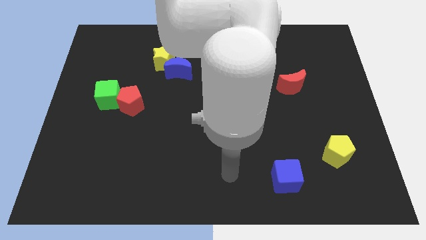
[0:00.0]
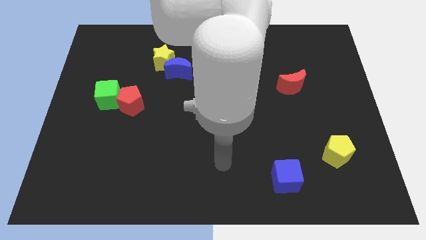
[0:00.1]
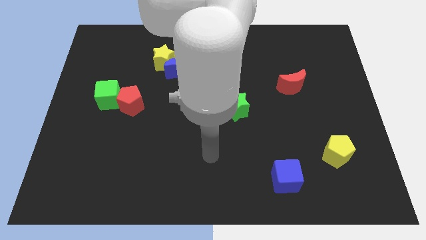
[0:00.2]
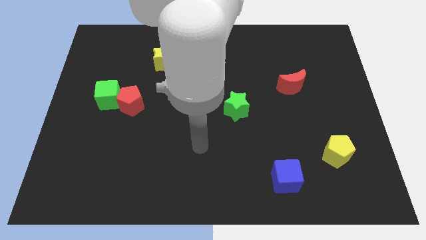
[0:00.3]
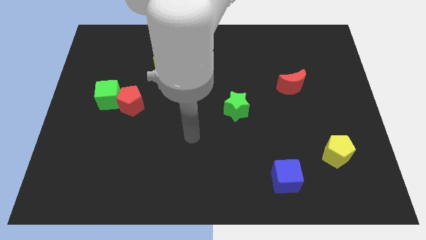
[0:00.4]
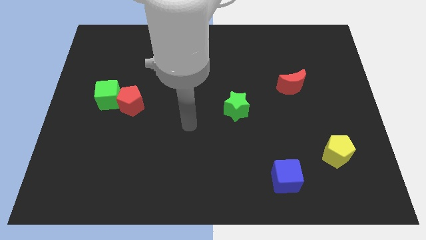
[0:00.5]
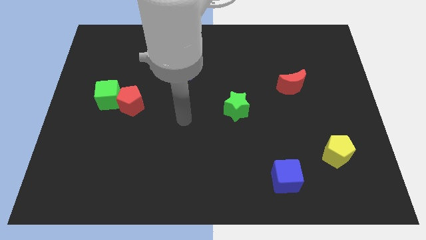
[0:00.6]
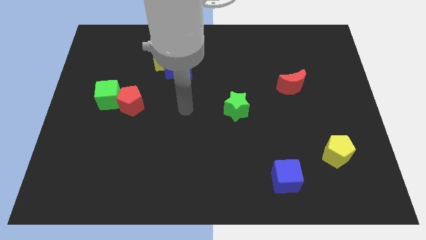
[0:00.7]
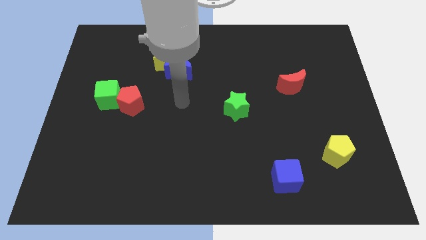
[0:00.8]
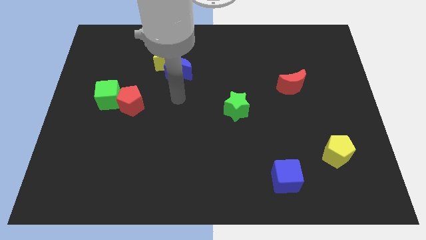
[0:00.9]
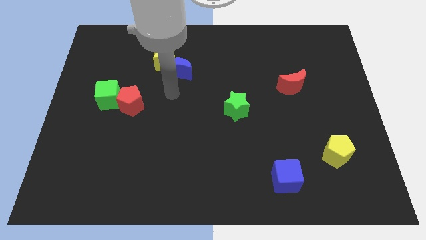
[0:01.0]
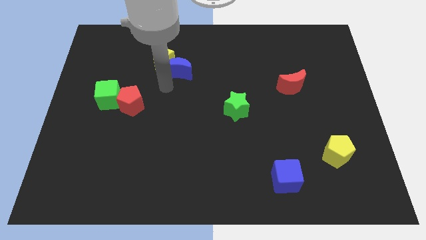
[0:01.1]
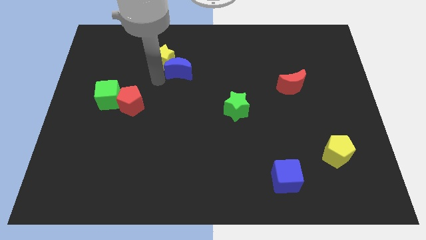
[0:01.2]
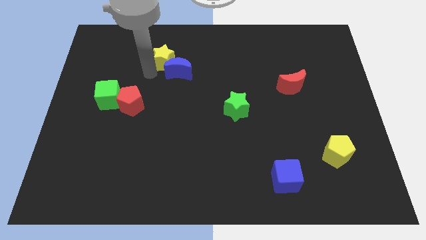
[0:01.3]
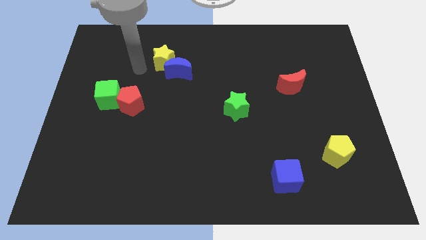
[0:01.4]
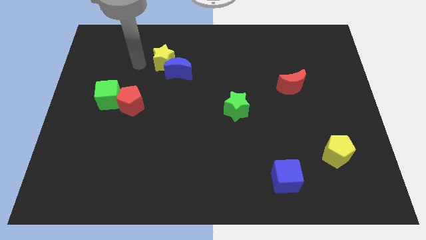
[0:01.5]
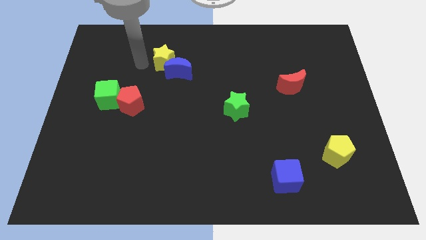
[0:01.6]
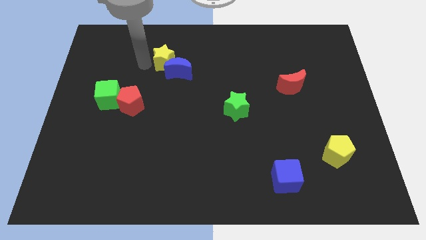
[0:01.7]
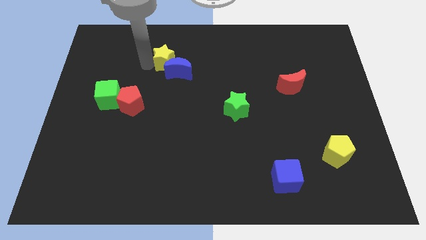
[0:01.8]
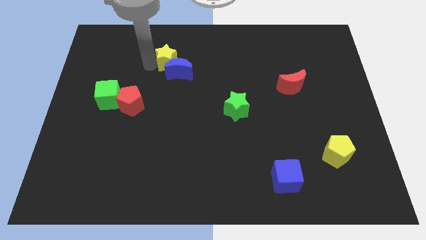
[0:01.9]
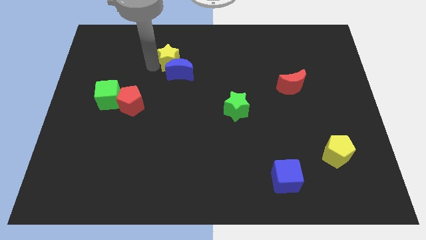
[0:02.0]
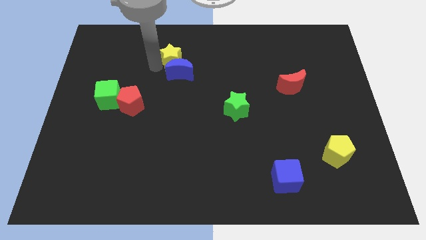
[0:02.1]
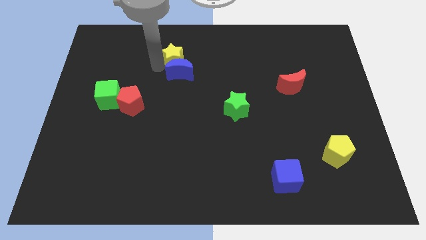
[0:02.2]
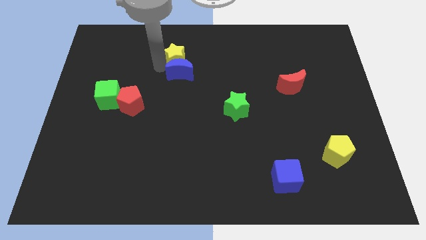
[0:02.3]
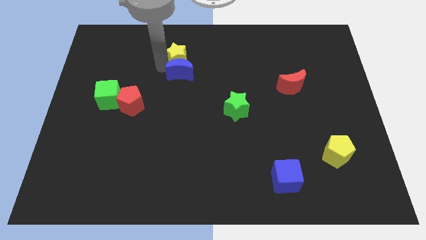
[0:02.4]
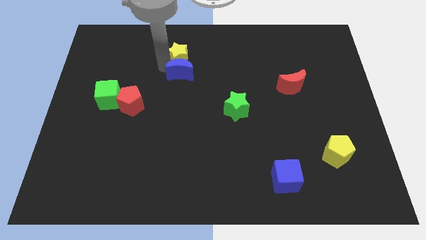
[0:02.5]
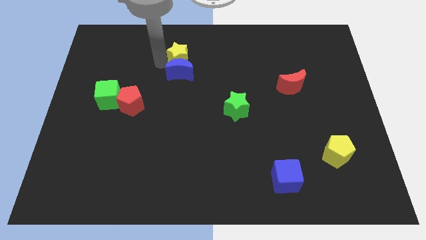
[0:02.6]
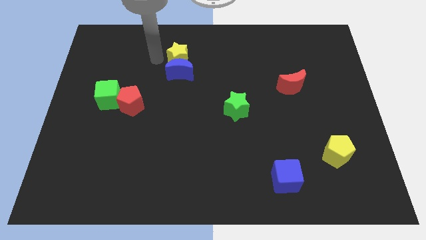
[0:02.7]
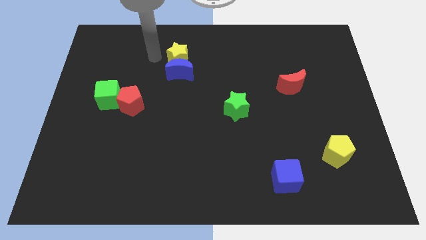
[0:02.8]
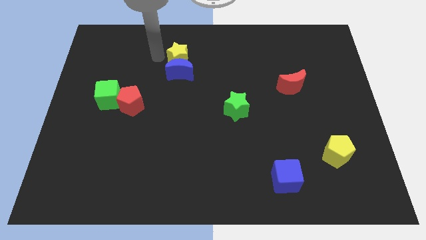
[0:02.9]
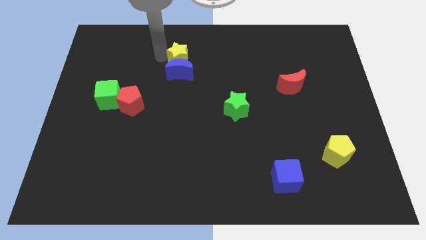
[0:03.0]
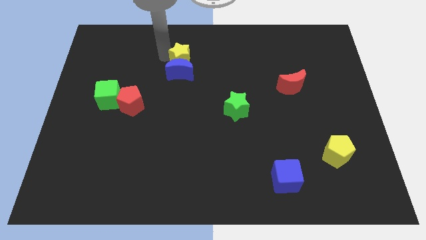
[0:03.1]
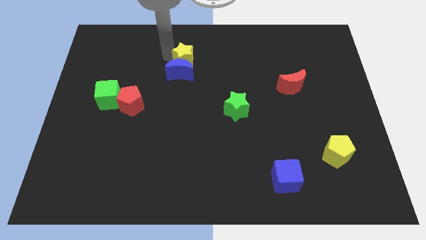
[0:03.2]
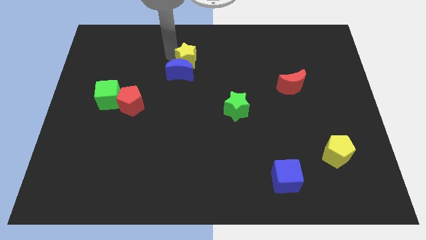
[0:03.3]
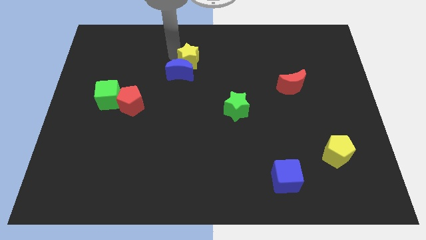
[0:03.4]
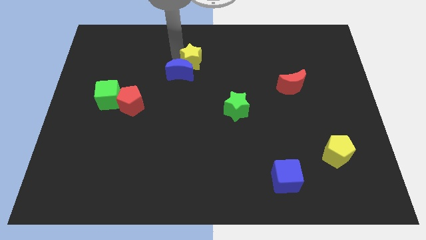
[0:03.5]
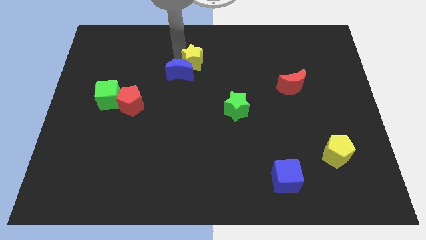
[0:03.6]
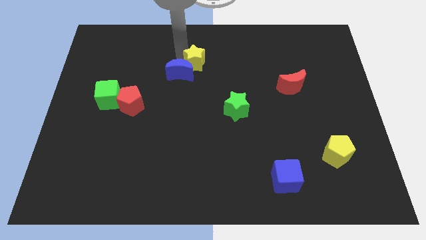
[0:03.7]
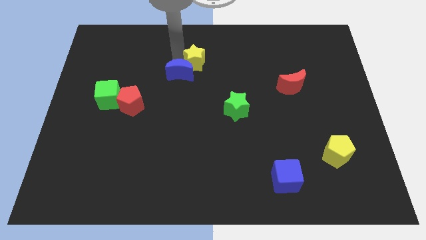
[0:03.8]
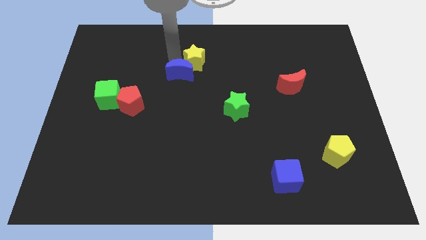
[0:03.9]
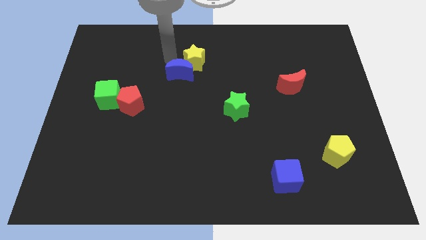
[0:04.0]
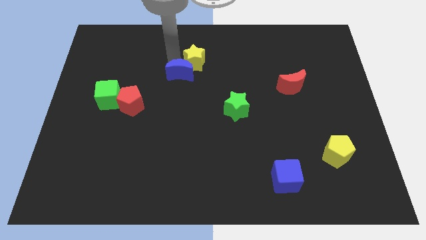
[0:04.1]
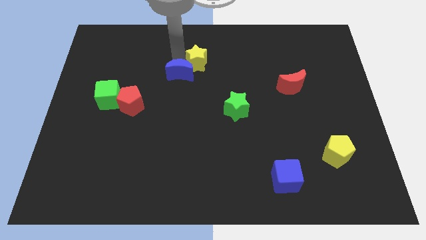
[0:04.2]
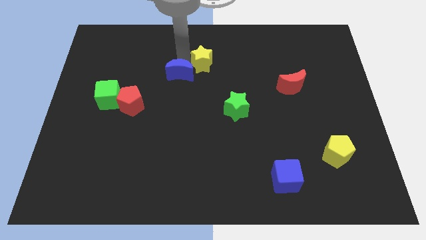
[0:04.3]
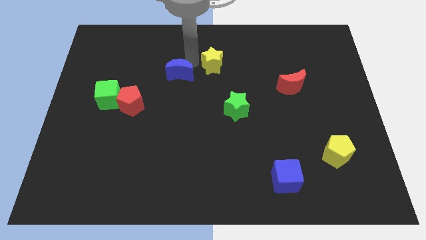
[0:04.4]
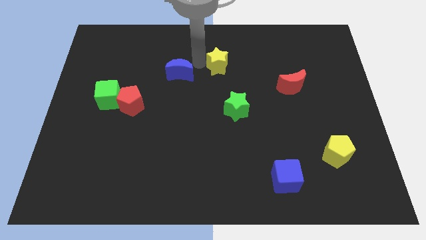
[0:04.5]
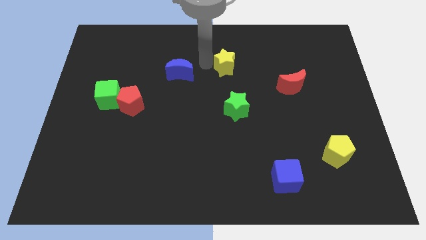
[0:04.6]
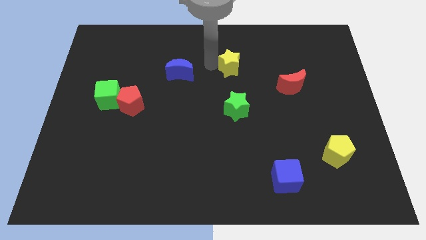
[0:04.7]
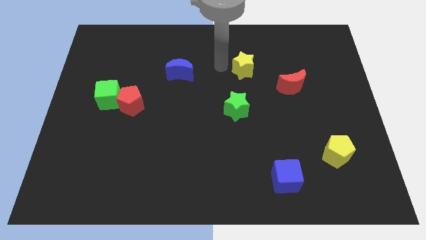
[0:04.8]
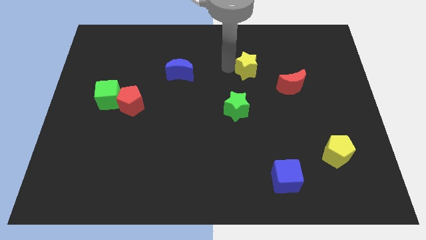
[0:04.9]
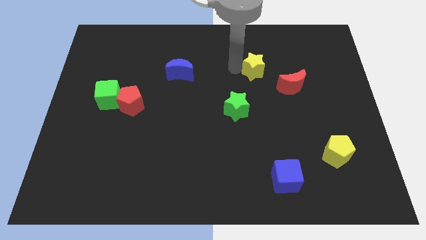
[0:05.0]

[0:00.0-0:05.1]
slide the yellow star to the top left of the red moon
